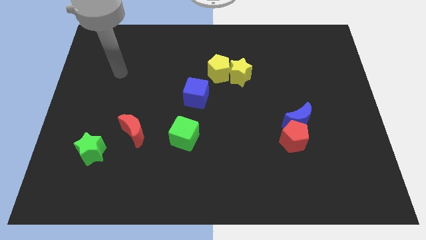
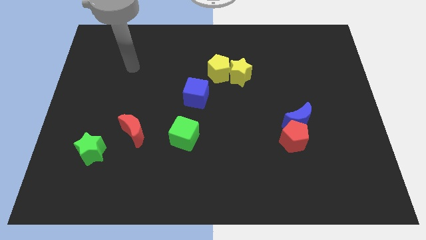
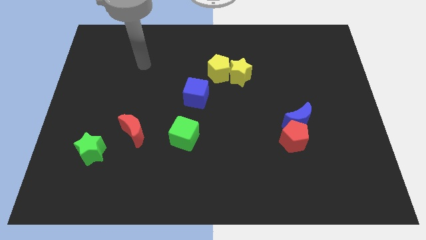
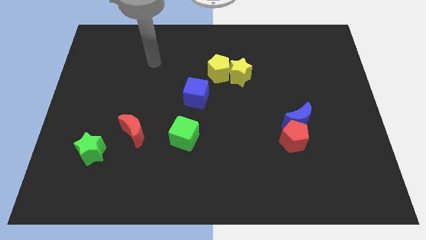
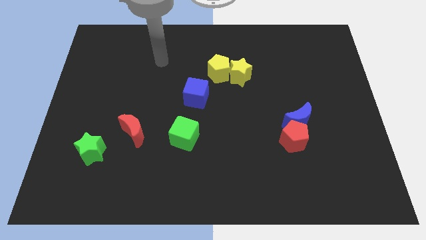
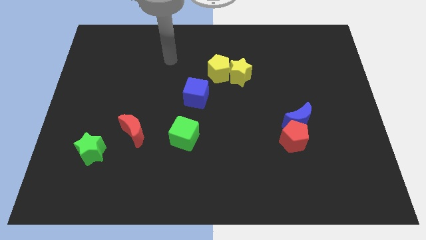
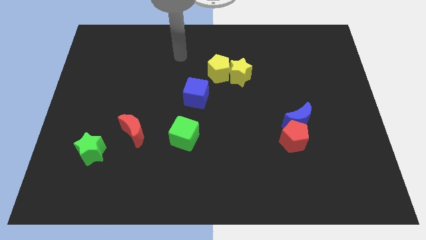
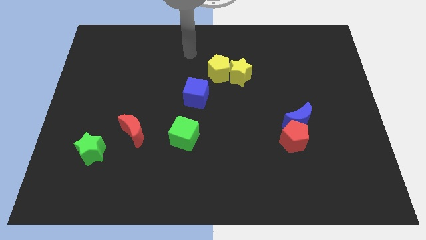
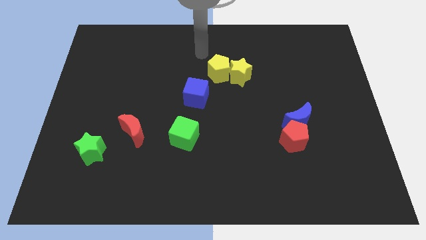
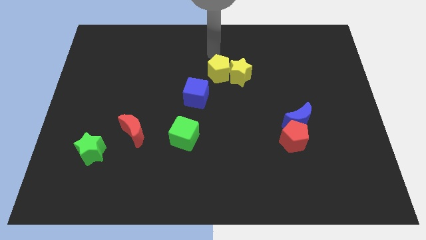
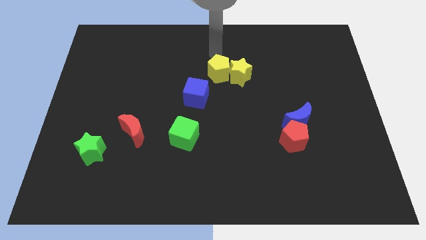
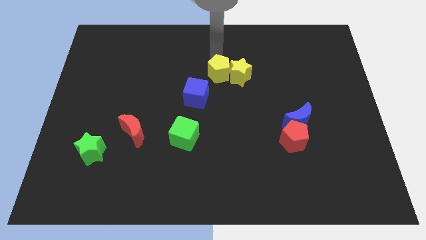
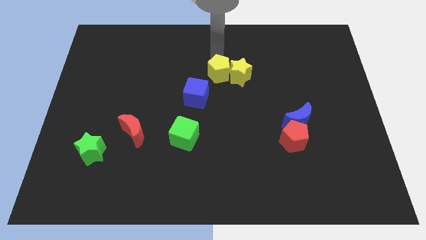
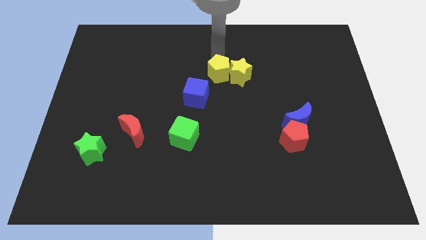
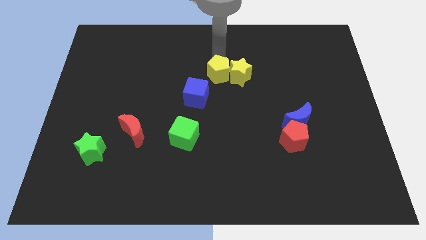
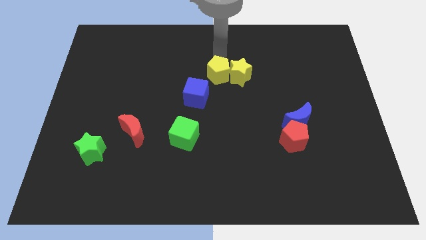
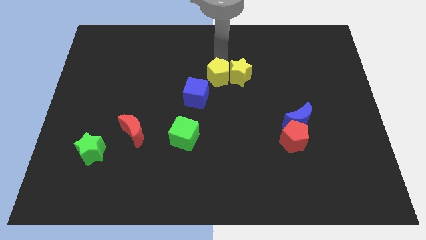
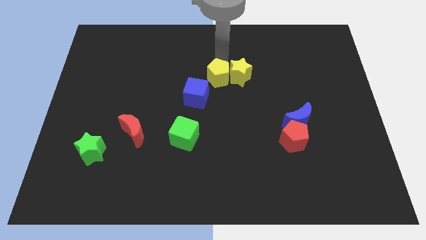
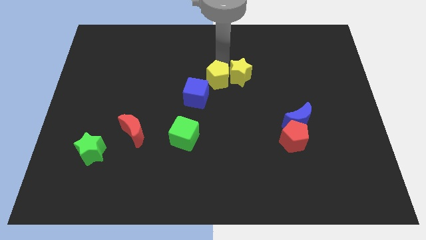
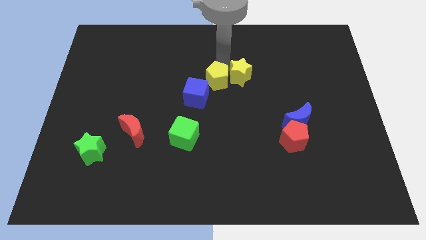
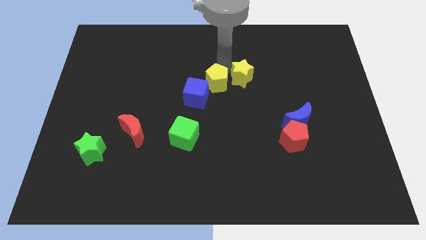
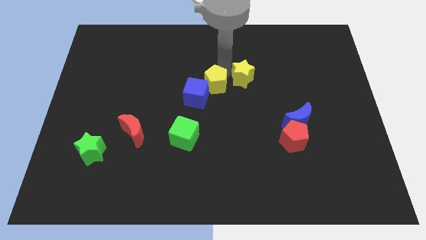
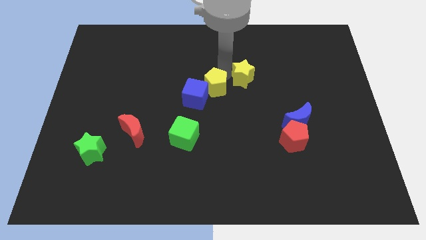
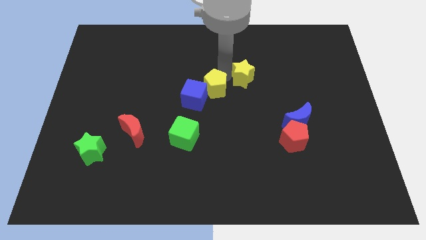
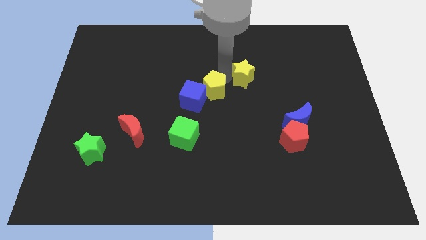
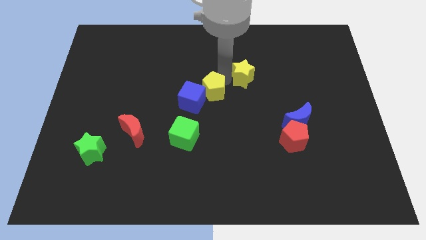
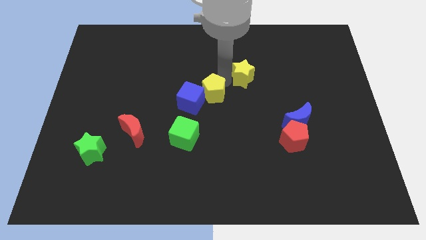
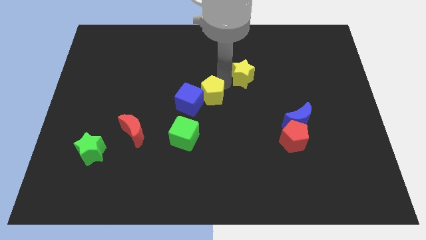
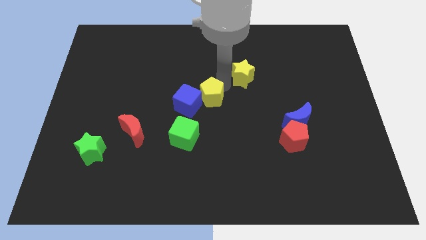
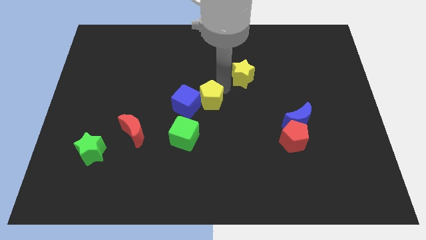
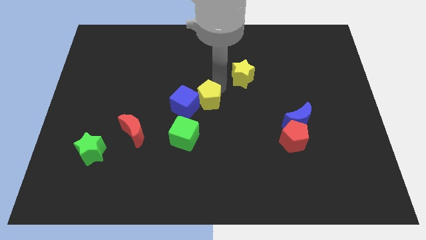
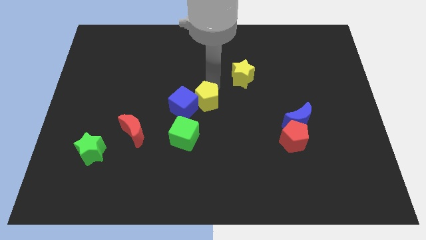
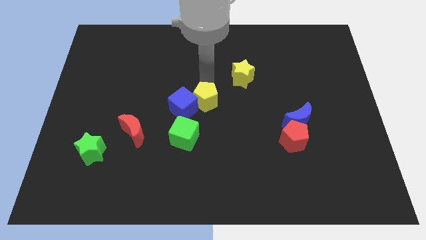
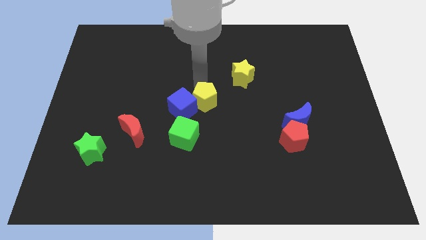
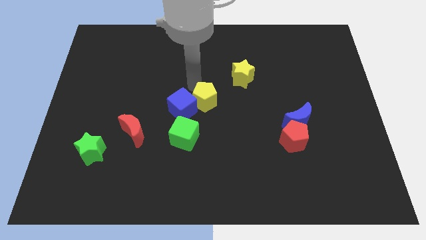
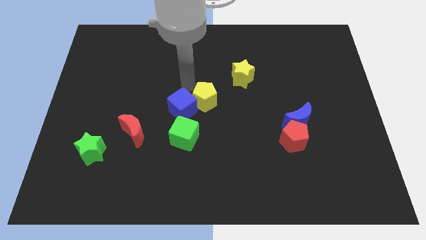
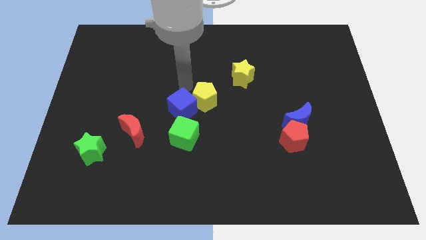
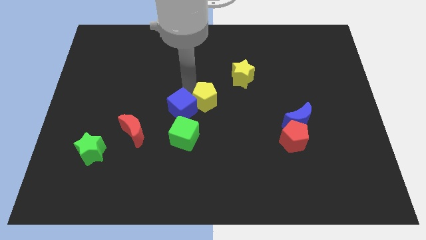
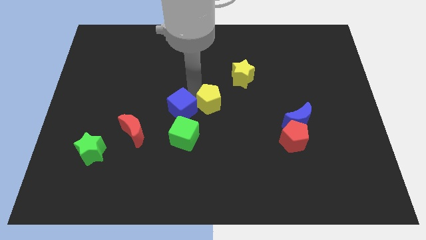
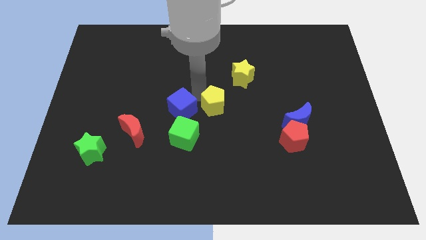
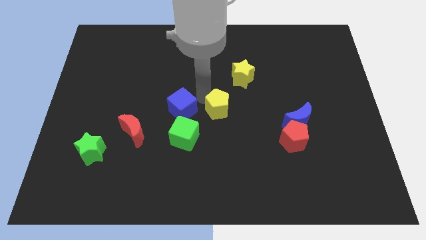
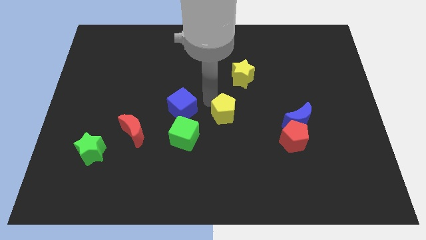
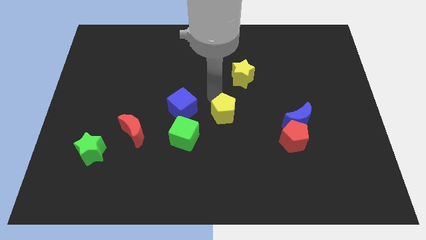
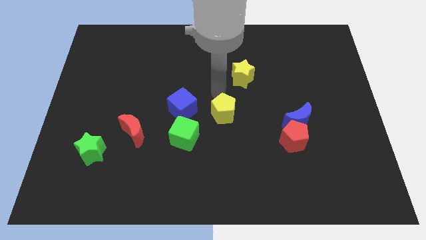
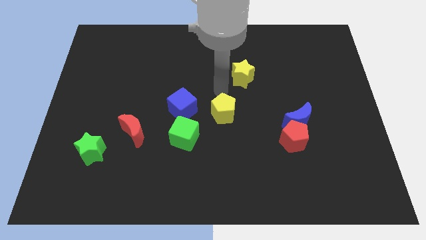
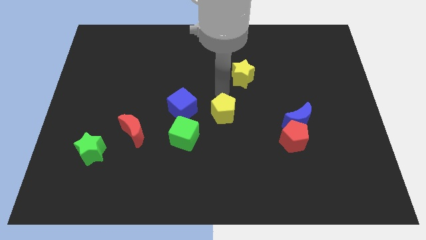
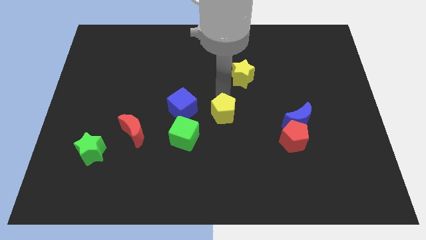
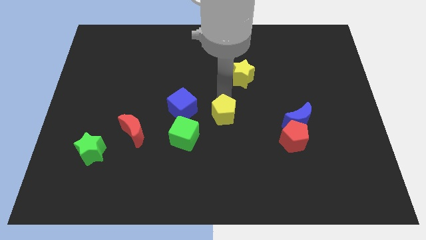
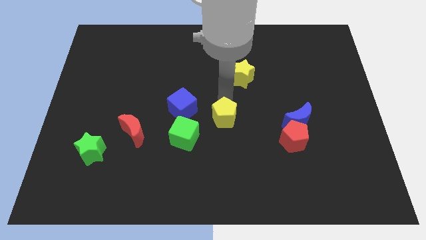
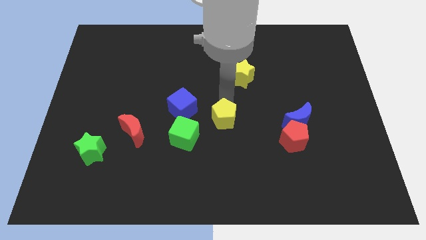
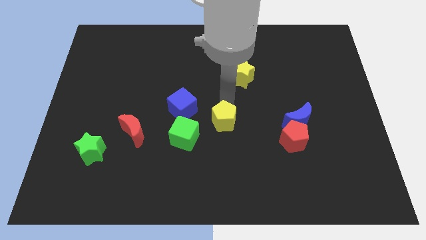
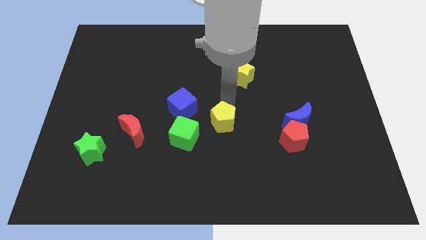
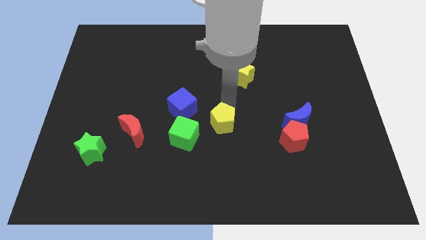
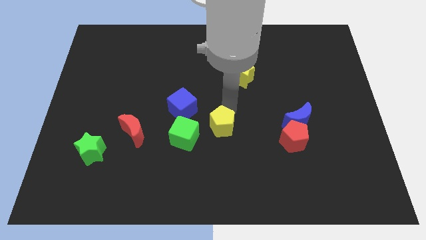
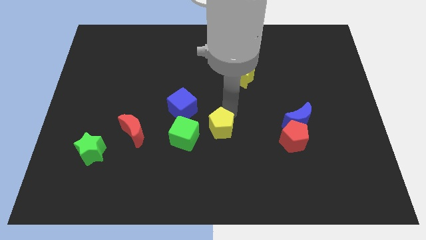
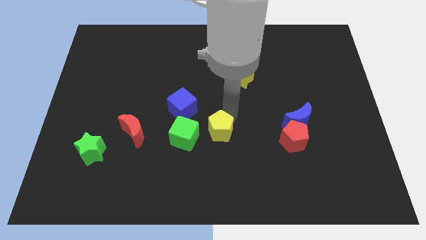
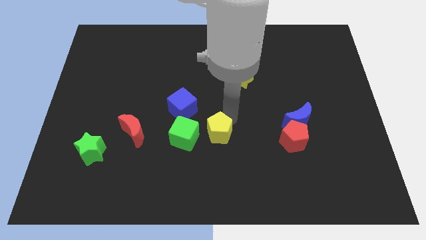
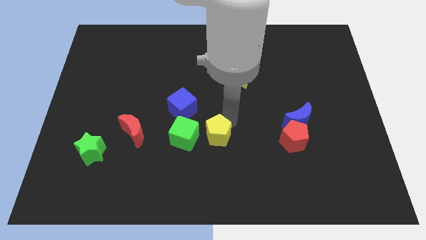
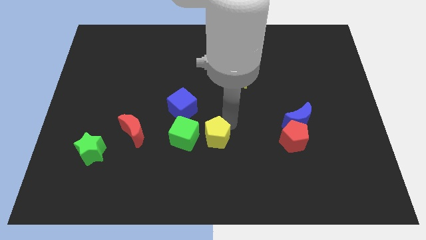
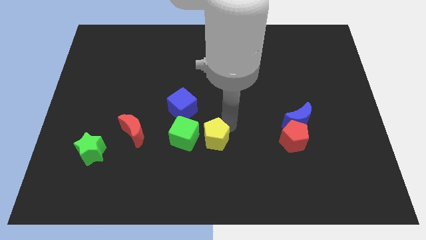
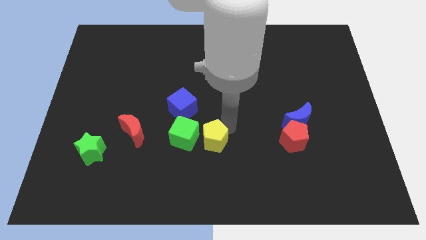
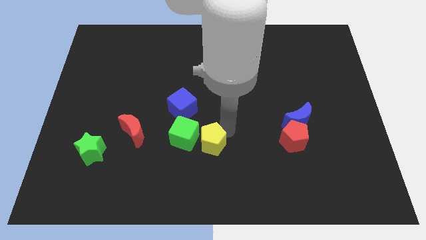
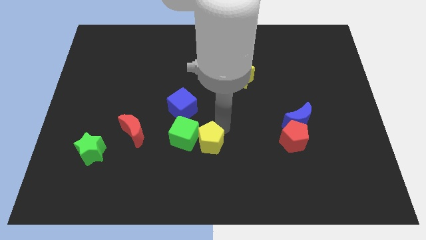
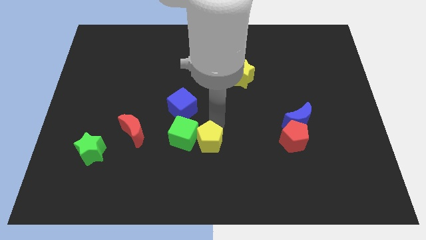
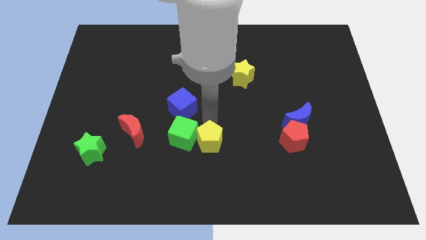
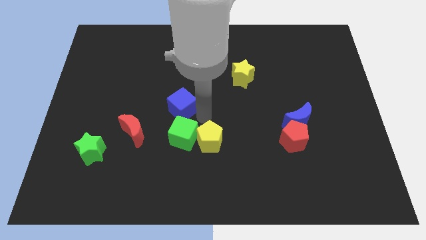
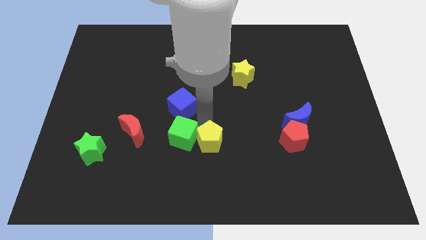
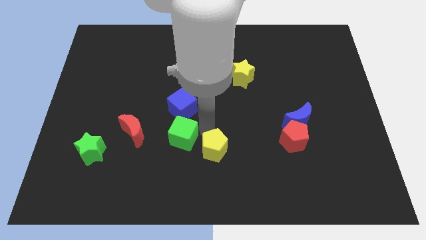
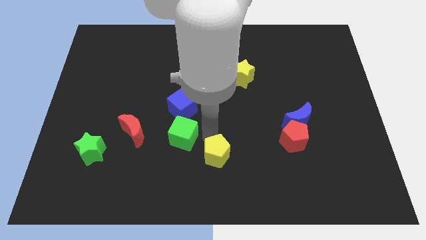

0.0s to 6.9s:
move the yellow pentagon to the bottom side

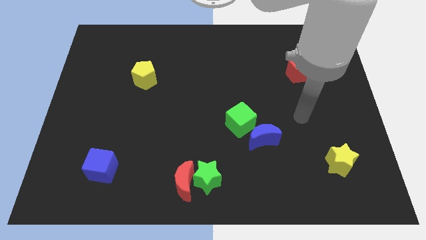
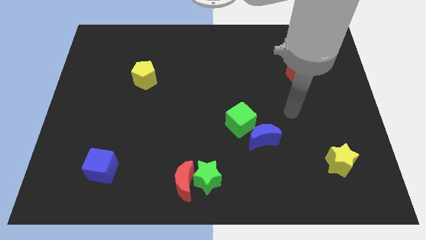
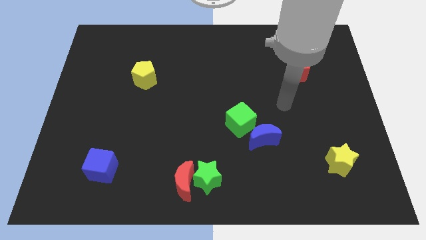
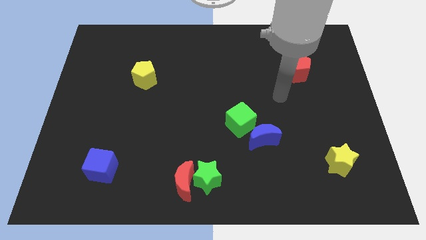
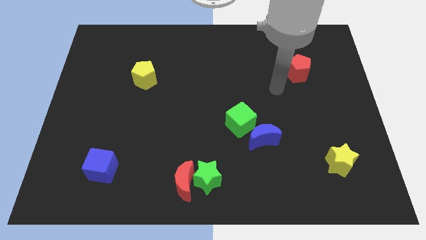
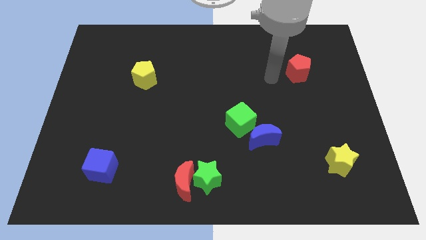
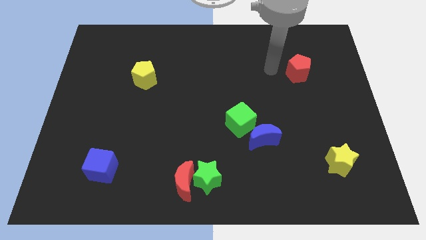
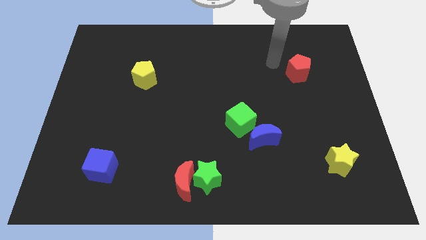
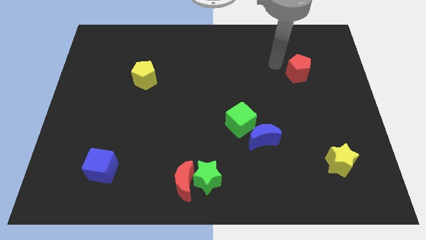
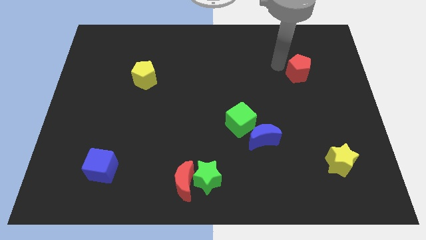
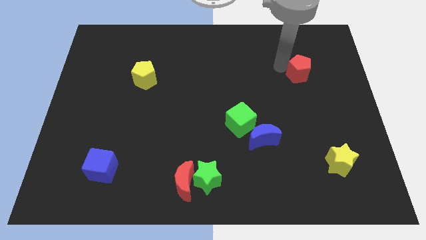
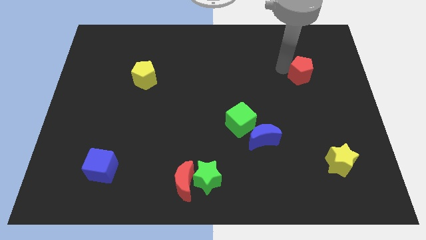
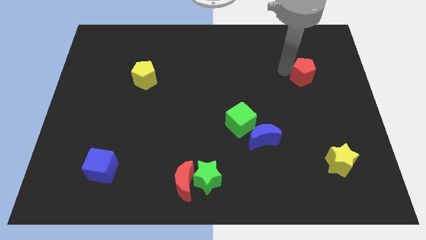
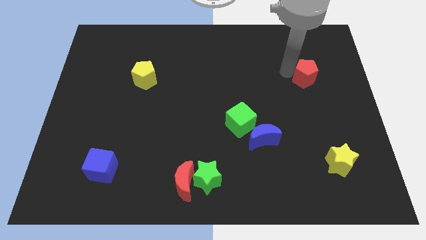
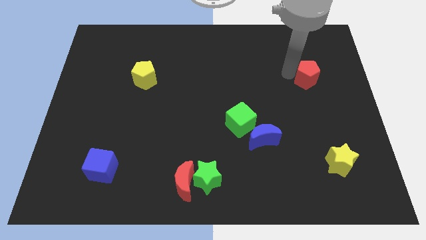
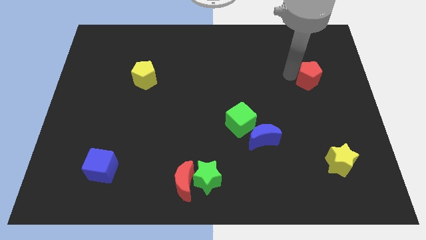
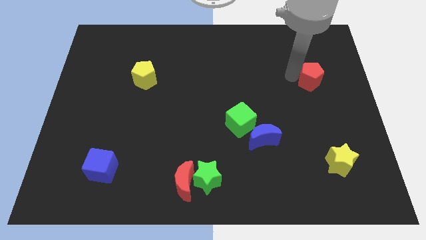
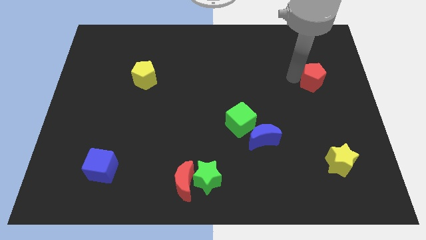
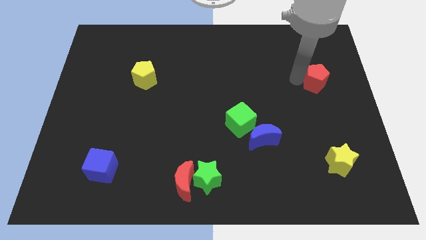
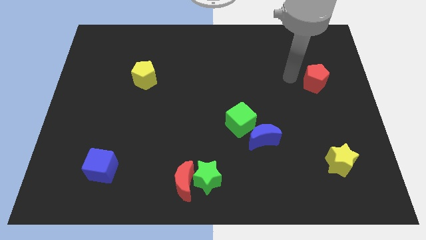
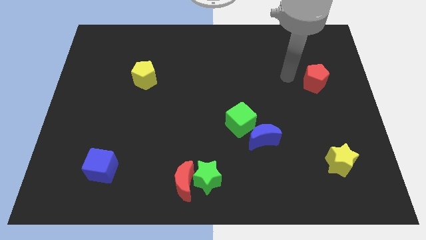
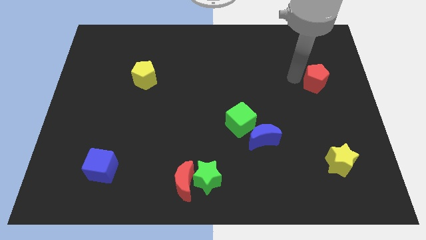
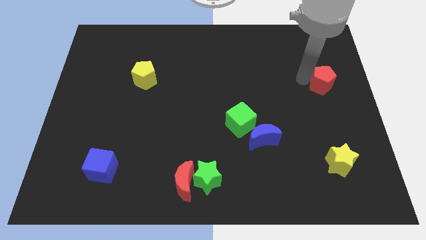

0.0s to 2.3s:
put the red pentagon to the right side of the board
